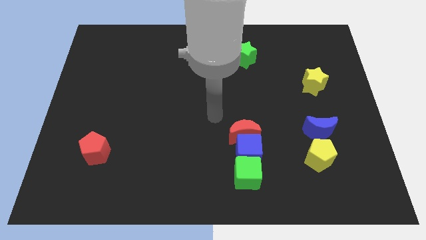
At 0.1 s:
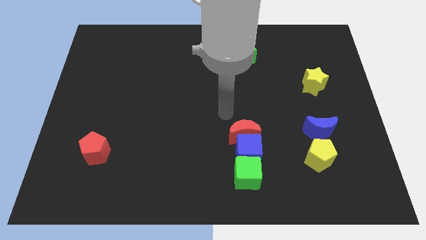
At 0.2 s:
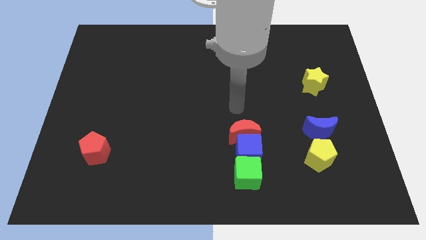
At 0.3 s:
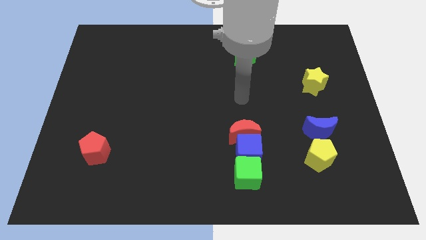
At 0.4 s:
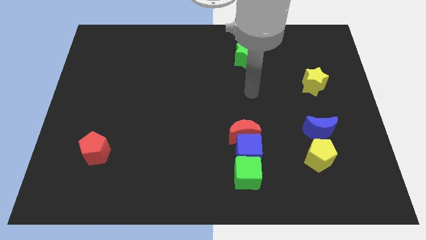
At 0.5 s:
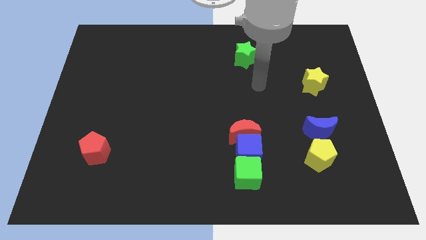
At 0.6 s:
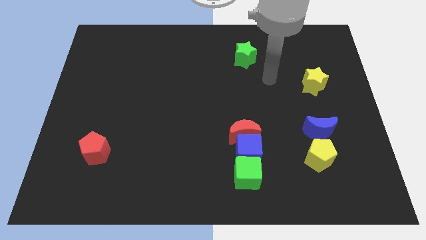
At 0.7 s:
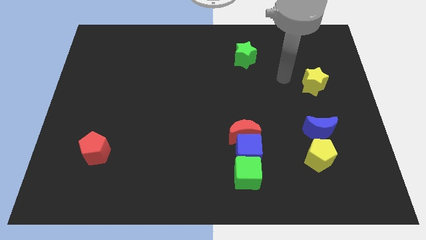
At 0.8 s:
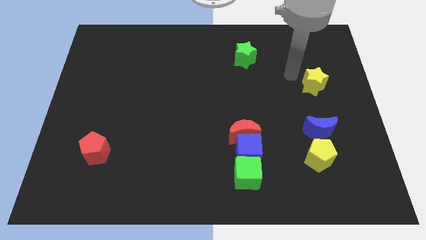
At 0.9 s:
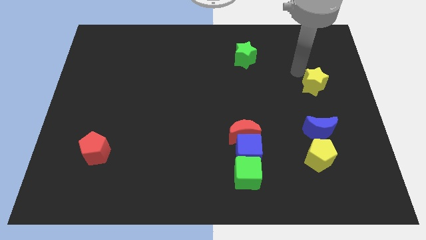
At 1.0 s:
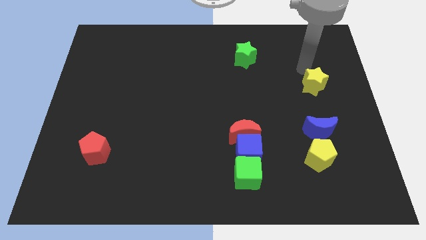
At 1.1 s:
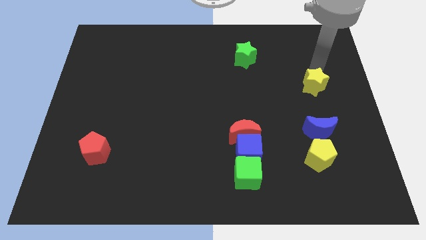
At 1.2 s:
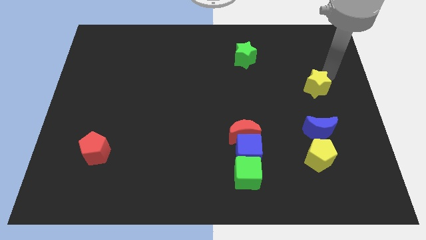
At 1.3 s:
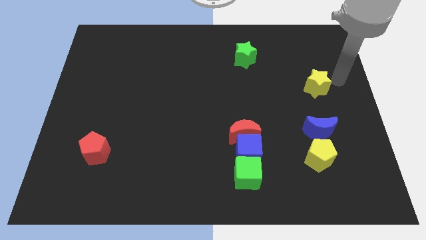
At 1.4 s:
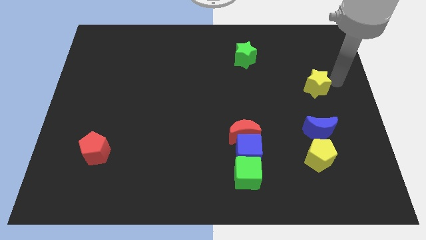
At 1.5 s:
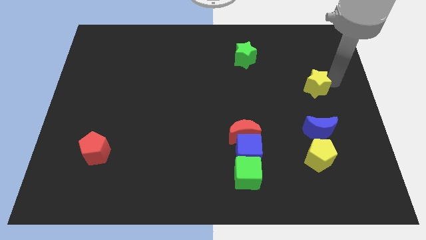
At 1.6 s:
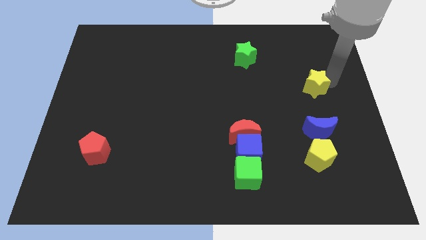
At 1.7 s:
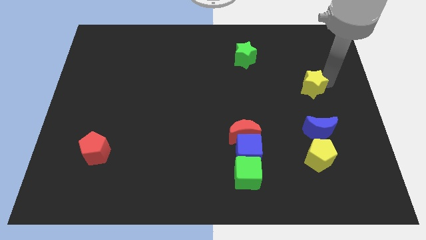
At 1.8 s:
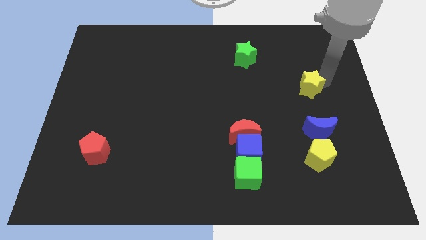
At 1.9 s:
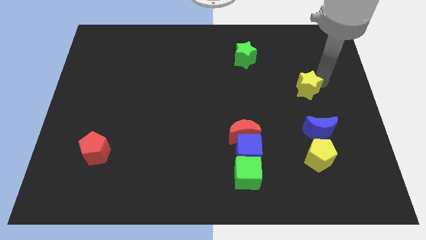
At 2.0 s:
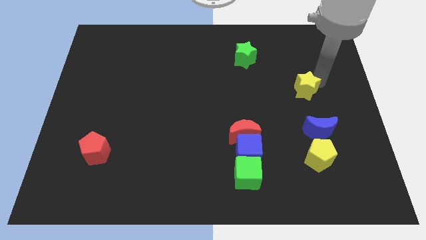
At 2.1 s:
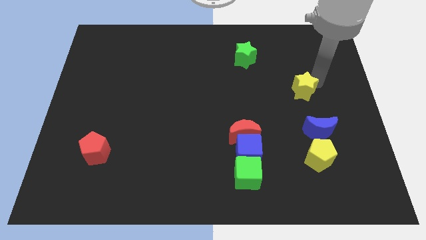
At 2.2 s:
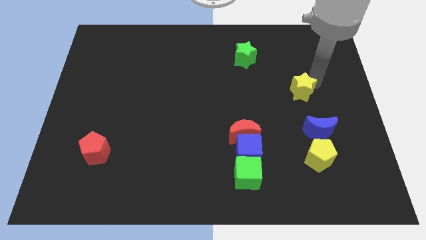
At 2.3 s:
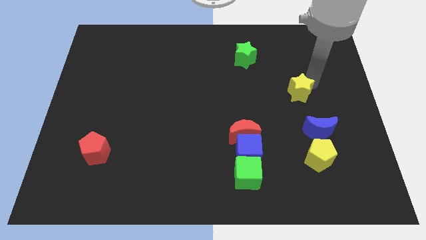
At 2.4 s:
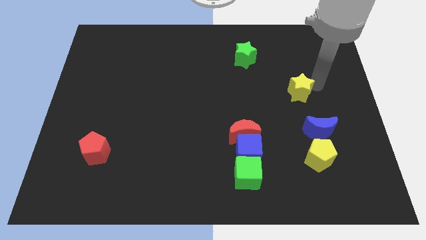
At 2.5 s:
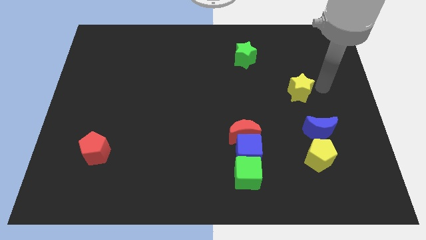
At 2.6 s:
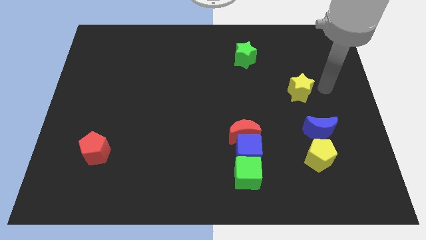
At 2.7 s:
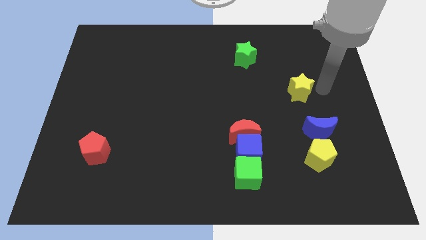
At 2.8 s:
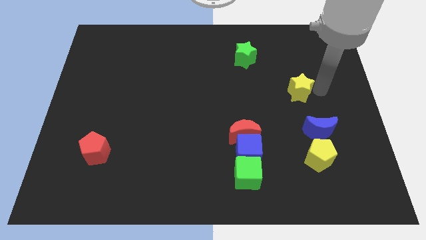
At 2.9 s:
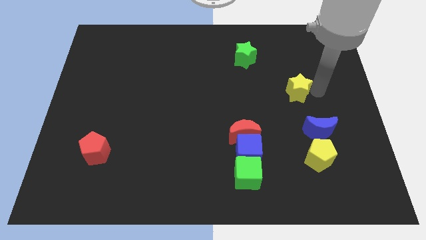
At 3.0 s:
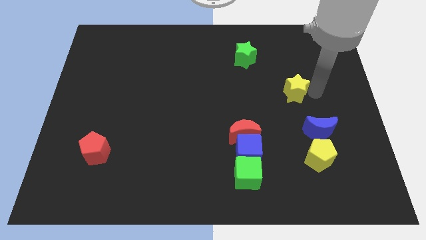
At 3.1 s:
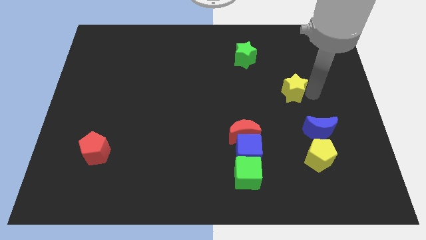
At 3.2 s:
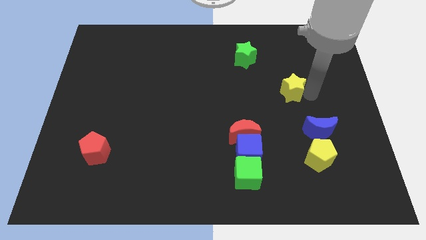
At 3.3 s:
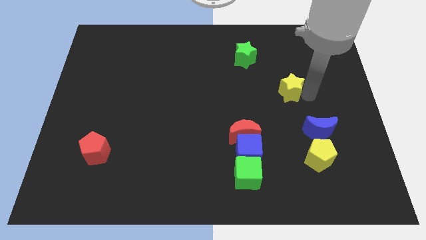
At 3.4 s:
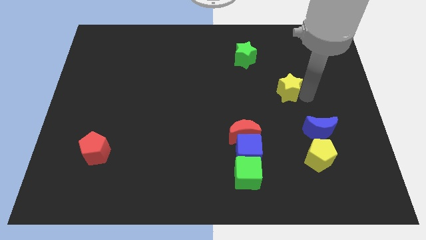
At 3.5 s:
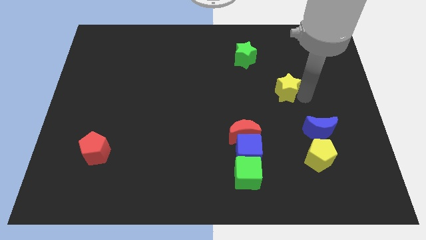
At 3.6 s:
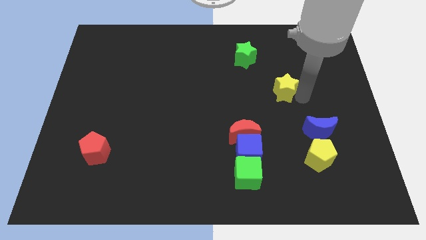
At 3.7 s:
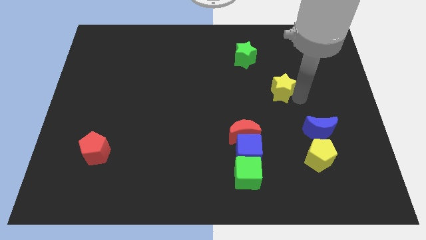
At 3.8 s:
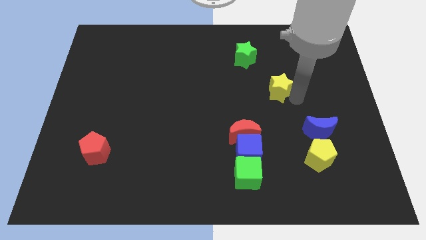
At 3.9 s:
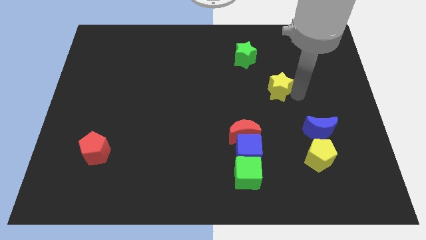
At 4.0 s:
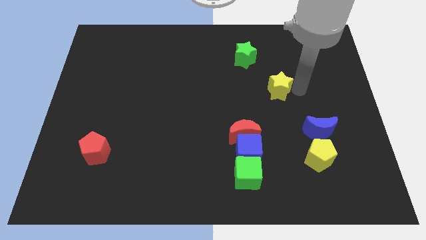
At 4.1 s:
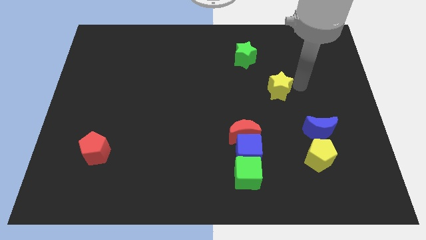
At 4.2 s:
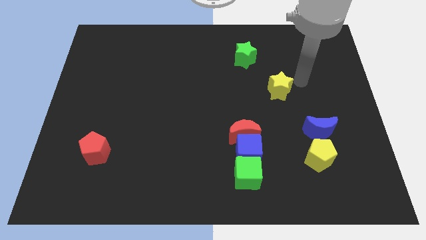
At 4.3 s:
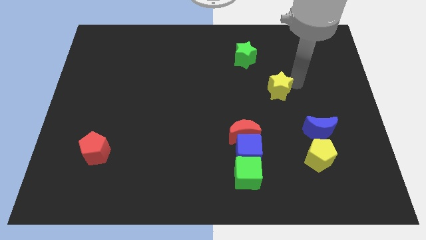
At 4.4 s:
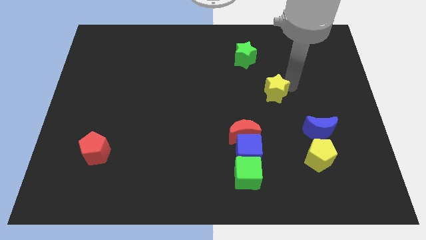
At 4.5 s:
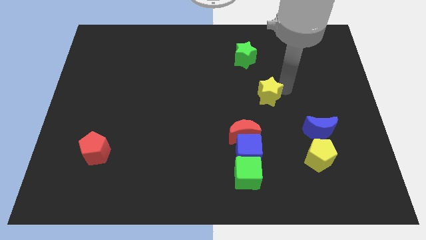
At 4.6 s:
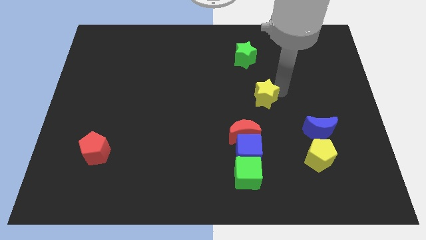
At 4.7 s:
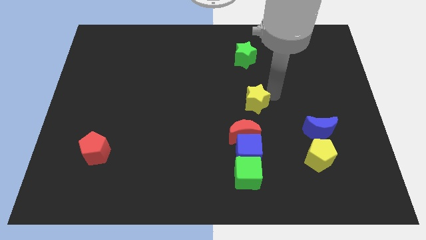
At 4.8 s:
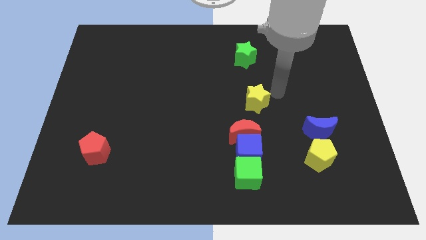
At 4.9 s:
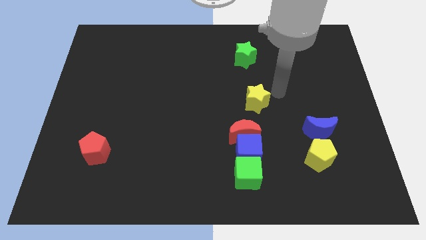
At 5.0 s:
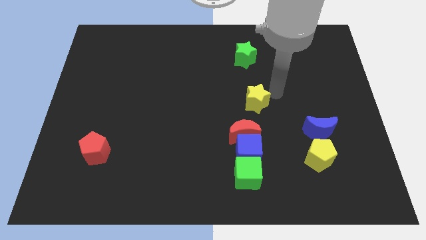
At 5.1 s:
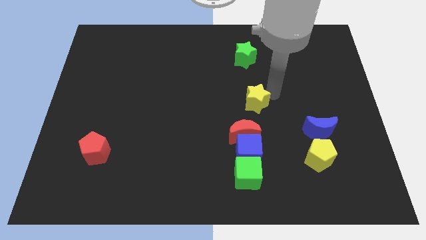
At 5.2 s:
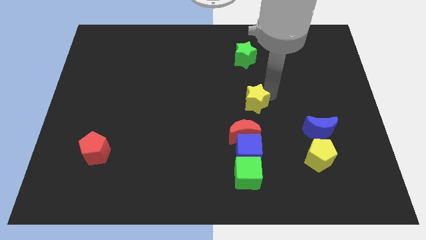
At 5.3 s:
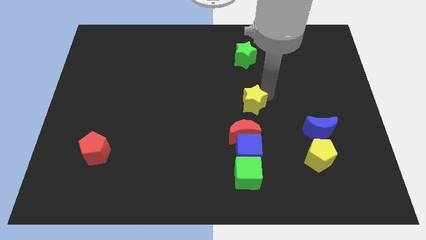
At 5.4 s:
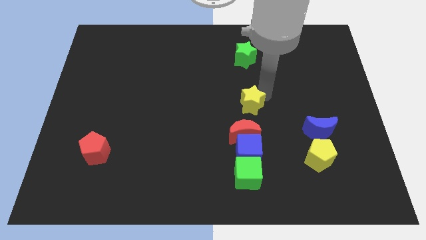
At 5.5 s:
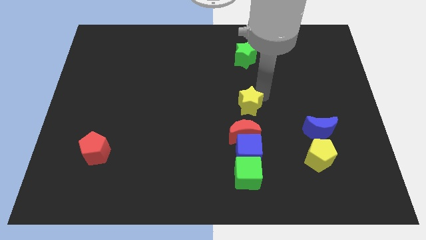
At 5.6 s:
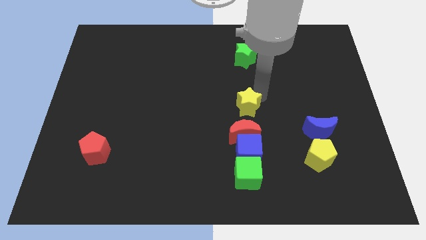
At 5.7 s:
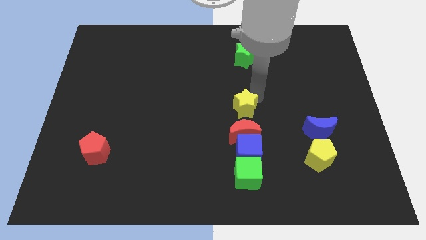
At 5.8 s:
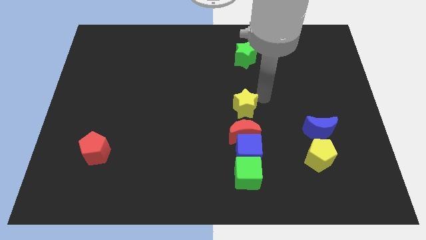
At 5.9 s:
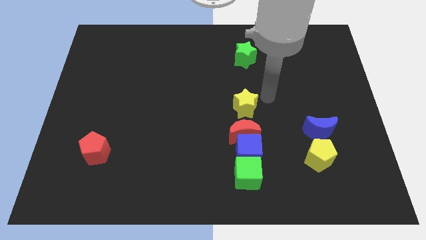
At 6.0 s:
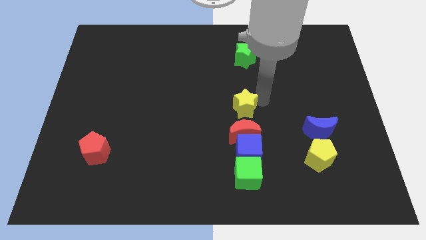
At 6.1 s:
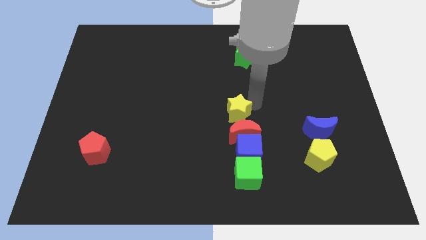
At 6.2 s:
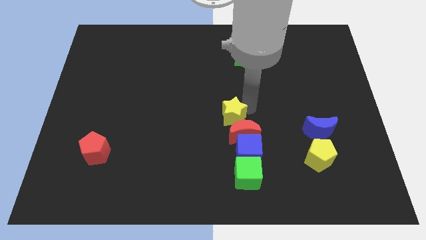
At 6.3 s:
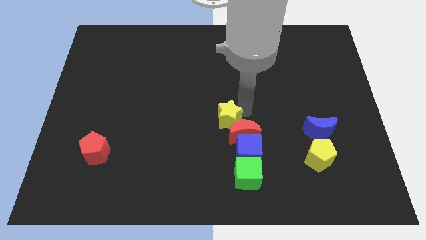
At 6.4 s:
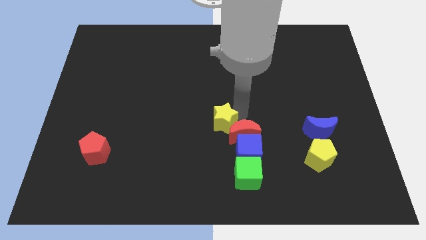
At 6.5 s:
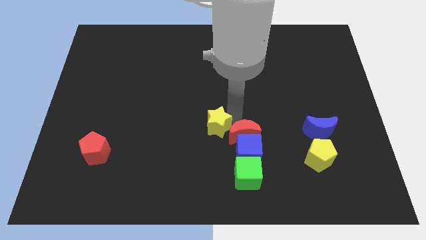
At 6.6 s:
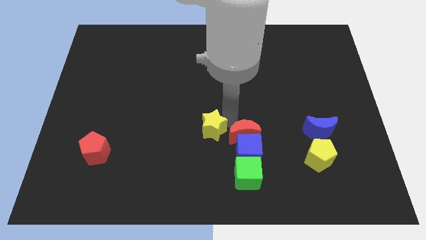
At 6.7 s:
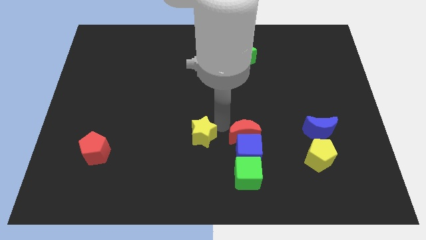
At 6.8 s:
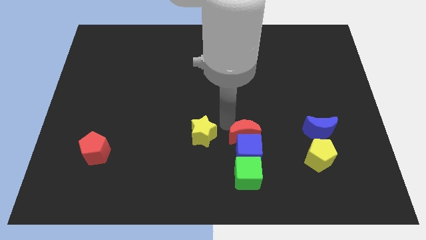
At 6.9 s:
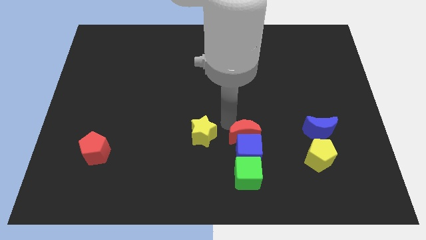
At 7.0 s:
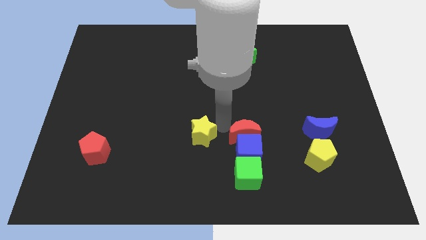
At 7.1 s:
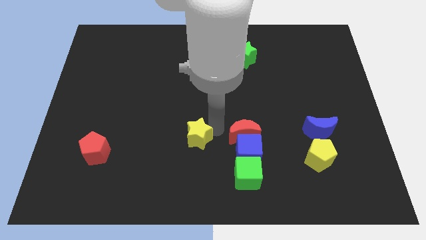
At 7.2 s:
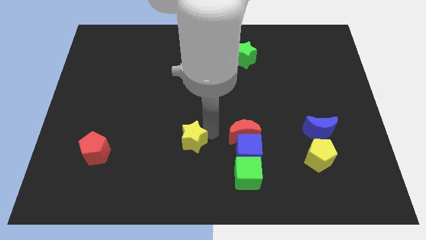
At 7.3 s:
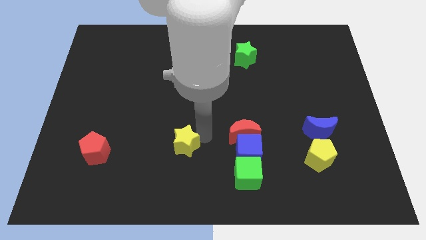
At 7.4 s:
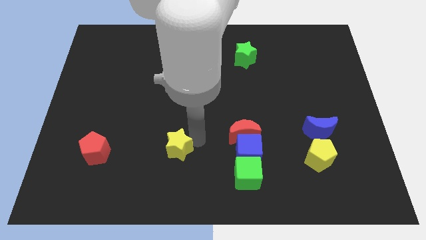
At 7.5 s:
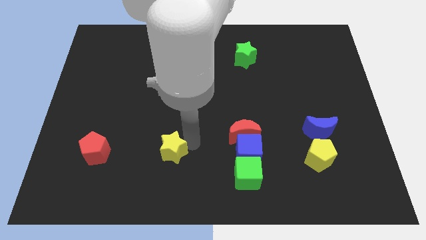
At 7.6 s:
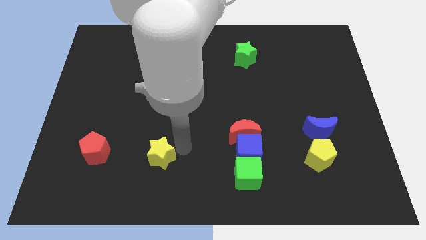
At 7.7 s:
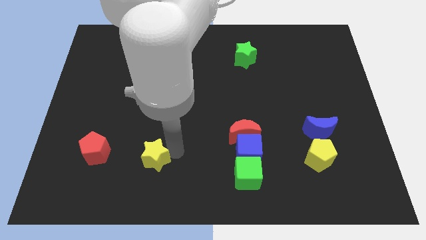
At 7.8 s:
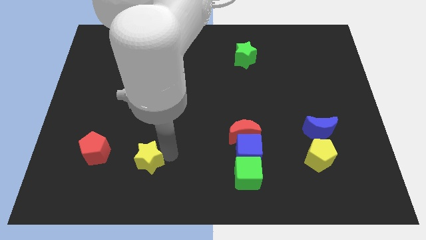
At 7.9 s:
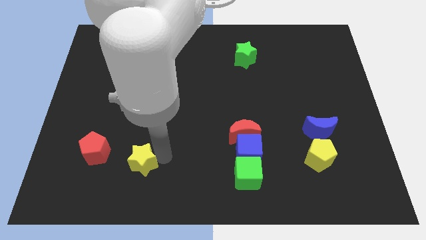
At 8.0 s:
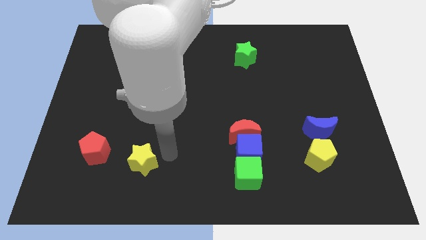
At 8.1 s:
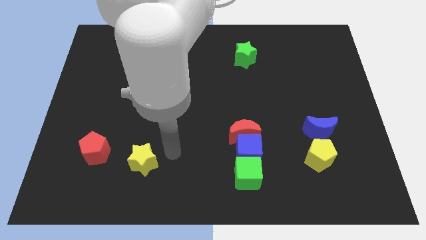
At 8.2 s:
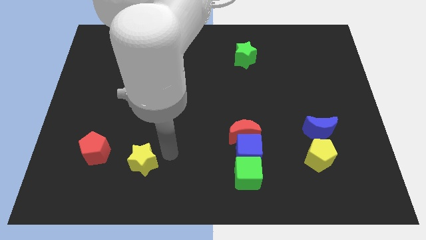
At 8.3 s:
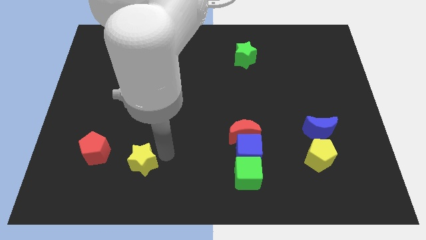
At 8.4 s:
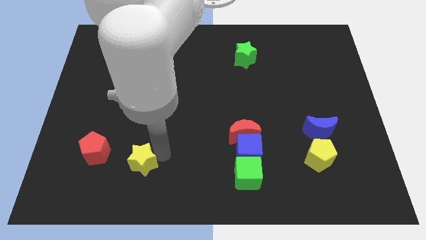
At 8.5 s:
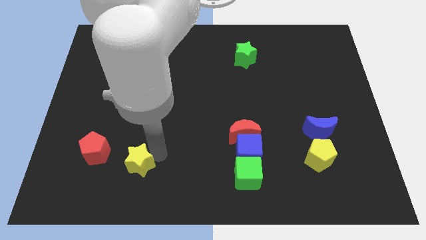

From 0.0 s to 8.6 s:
move the yellow star diagonally down and to the right of the red pentagon
